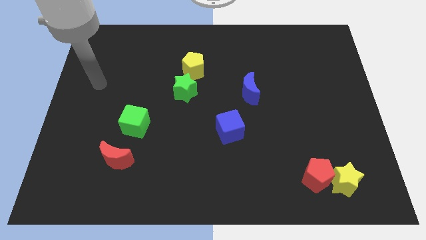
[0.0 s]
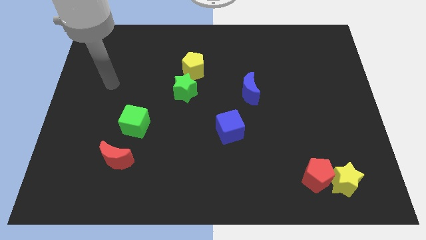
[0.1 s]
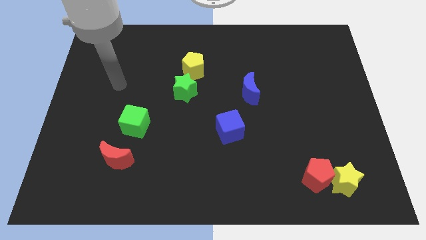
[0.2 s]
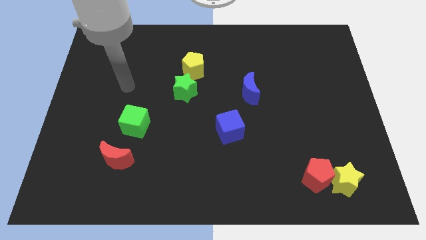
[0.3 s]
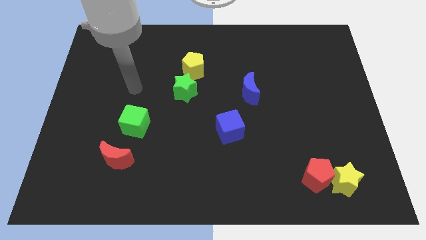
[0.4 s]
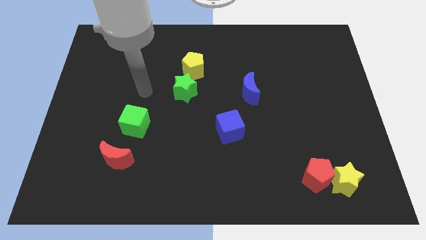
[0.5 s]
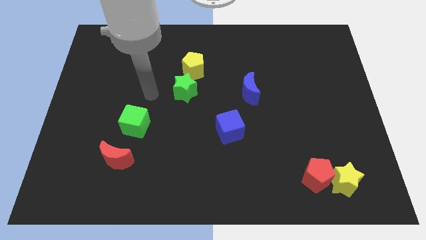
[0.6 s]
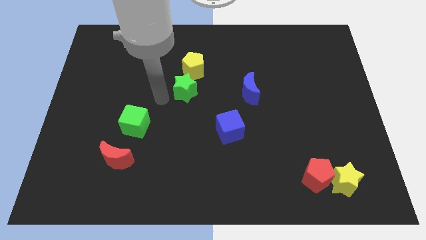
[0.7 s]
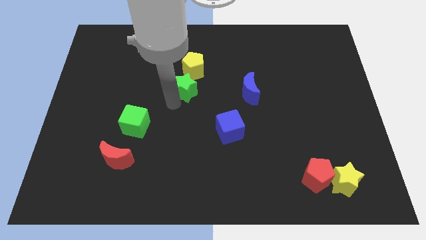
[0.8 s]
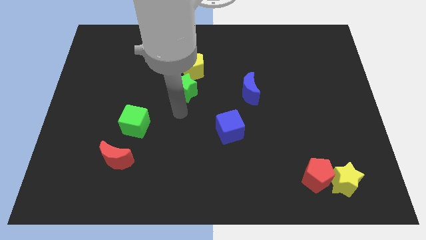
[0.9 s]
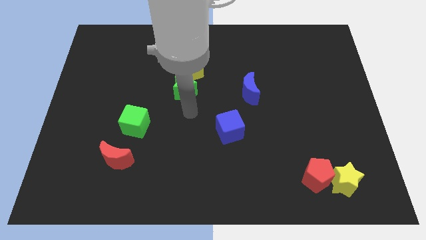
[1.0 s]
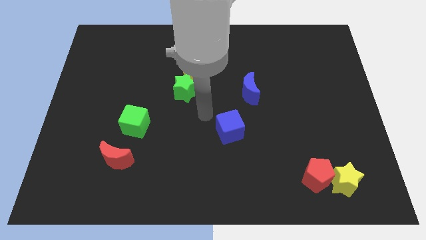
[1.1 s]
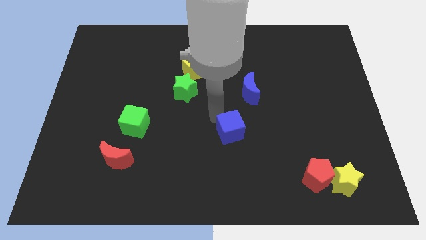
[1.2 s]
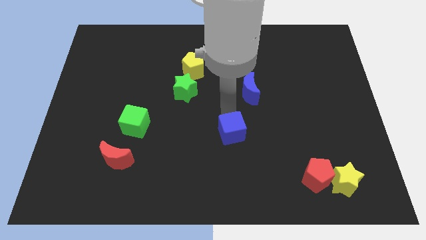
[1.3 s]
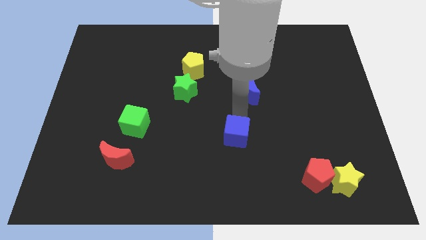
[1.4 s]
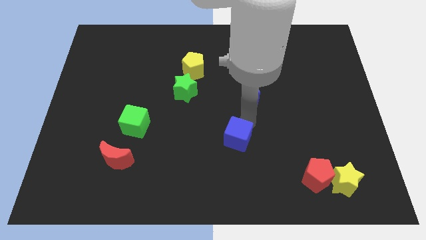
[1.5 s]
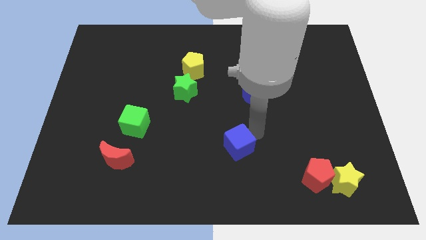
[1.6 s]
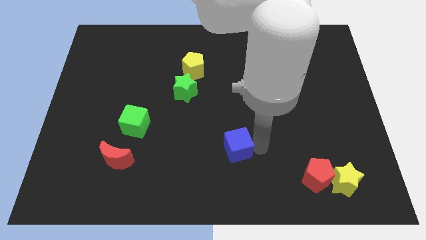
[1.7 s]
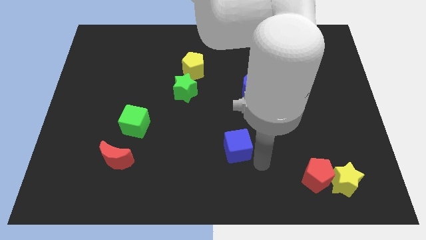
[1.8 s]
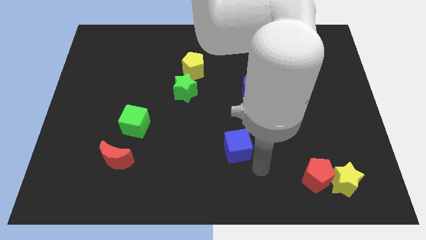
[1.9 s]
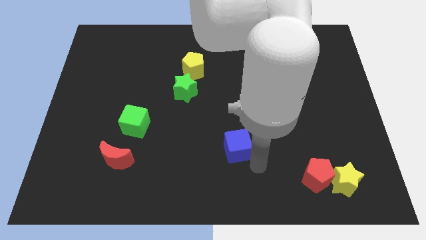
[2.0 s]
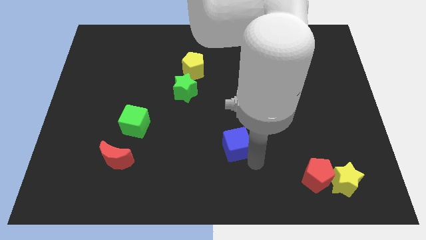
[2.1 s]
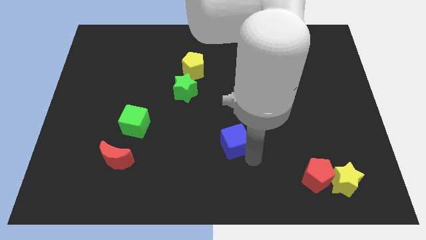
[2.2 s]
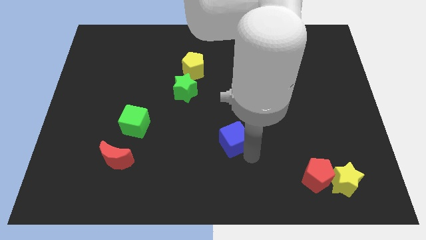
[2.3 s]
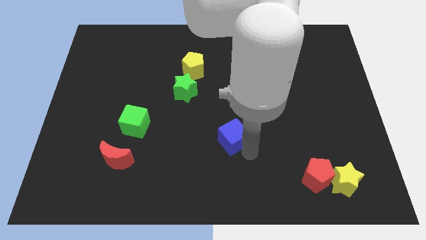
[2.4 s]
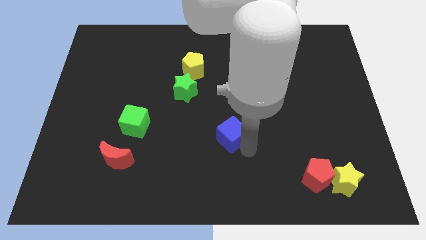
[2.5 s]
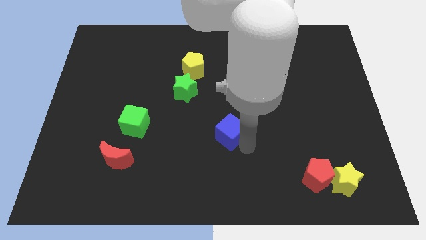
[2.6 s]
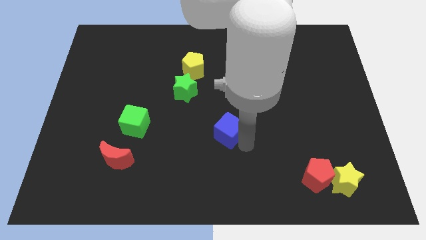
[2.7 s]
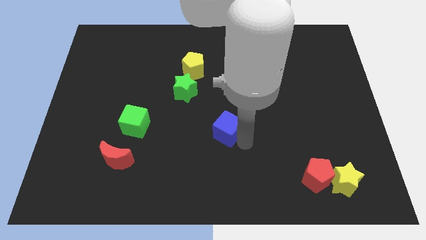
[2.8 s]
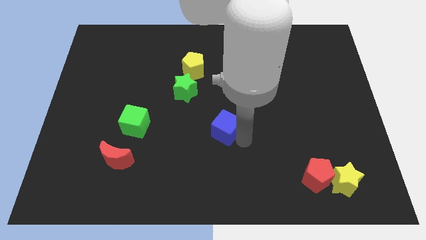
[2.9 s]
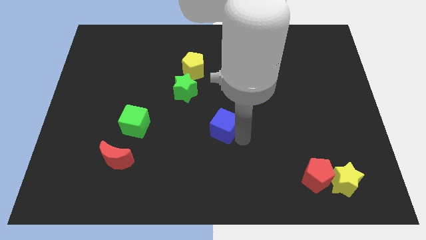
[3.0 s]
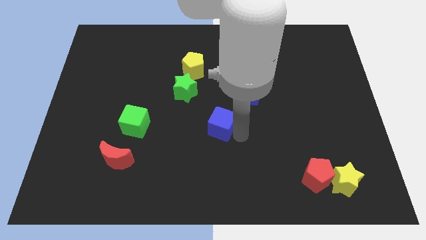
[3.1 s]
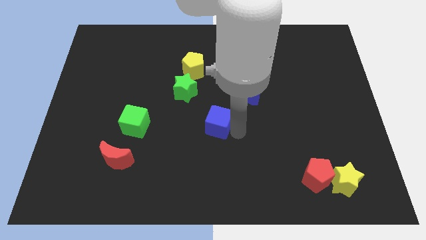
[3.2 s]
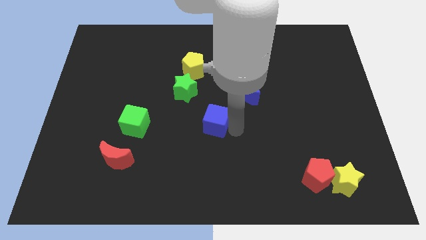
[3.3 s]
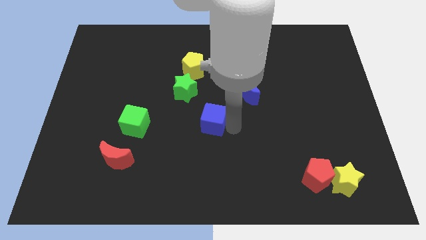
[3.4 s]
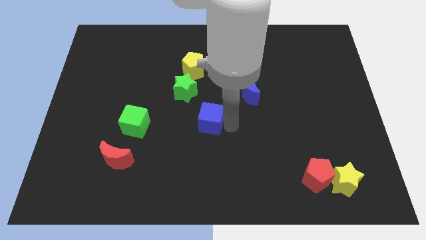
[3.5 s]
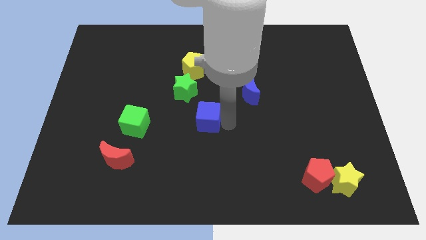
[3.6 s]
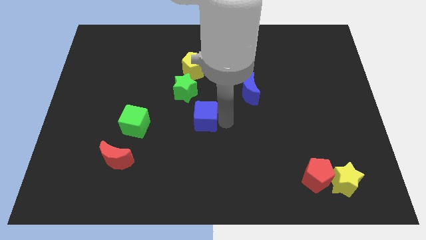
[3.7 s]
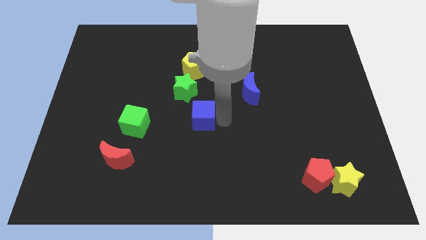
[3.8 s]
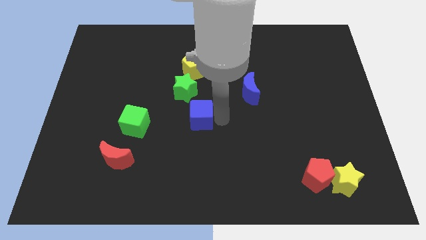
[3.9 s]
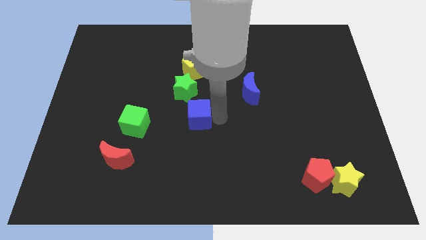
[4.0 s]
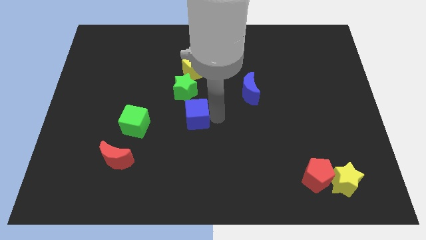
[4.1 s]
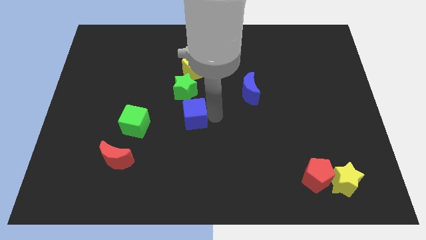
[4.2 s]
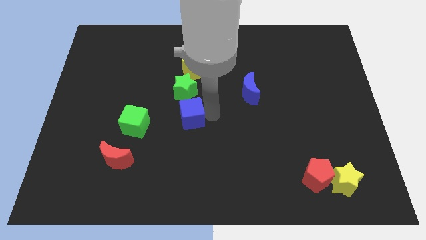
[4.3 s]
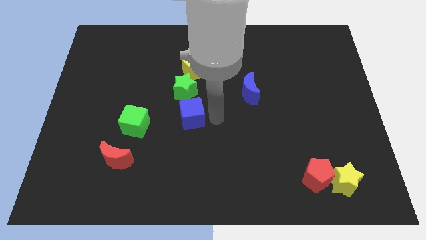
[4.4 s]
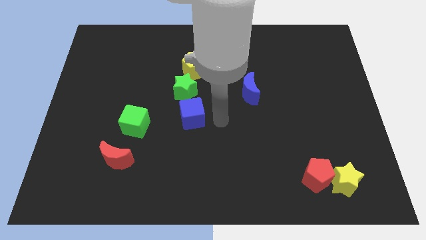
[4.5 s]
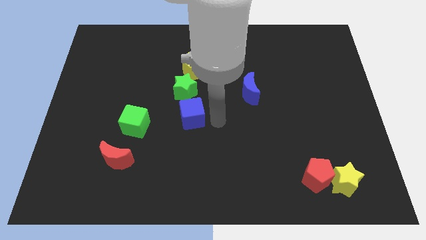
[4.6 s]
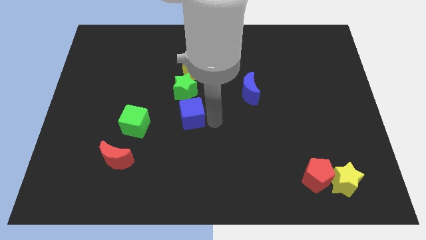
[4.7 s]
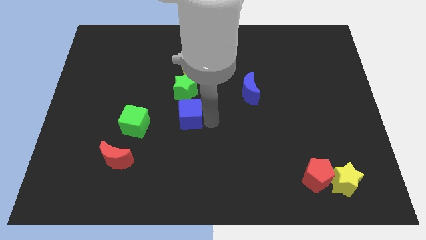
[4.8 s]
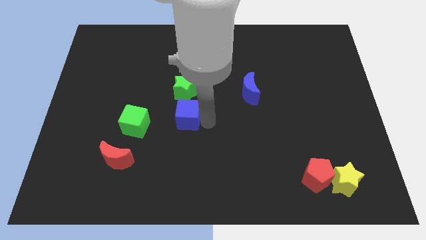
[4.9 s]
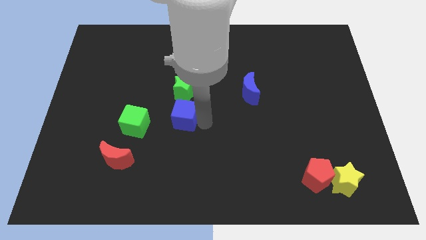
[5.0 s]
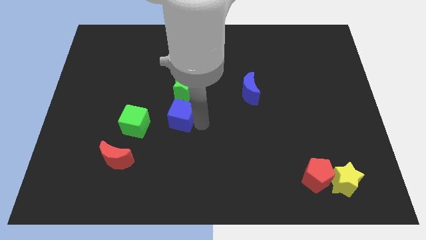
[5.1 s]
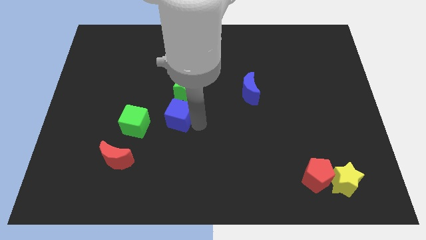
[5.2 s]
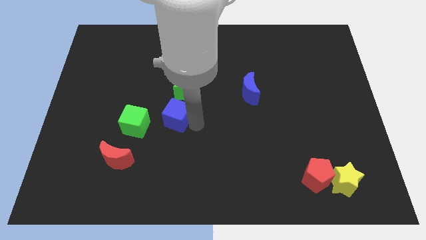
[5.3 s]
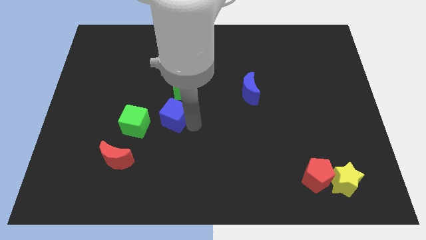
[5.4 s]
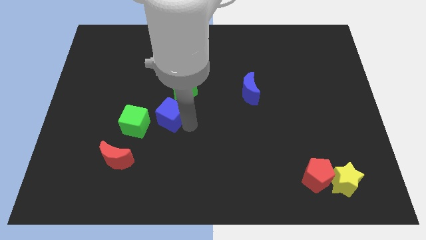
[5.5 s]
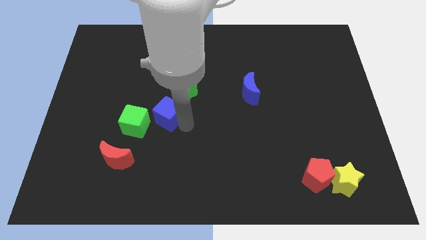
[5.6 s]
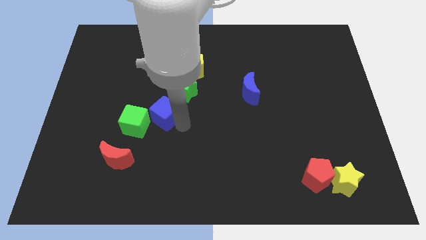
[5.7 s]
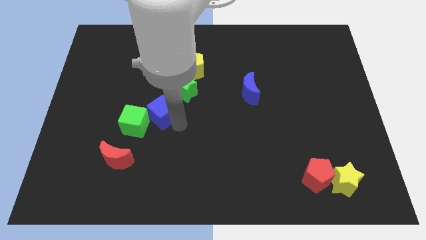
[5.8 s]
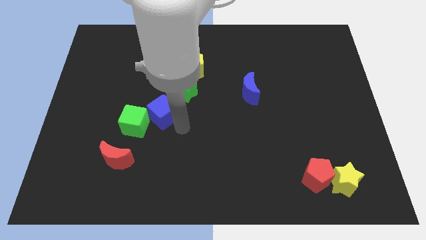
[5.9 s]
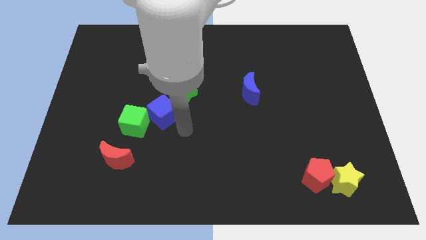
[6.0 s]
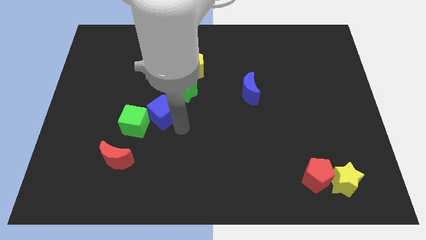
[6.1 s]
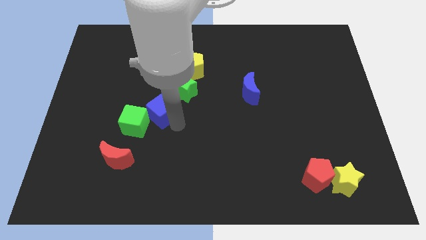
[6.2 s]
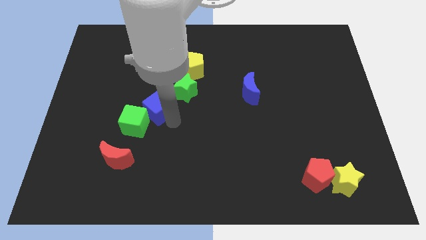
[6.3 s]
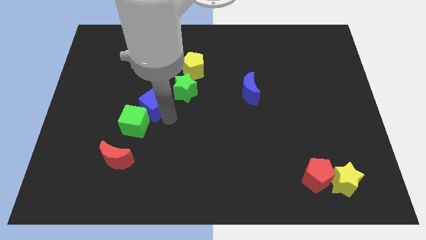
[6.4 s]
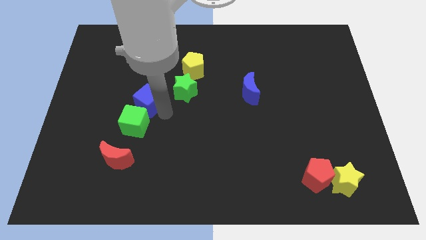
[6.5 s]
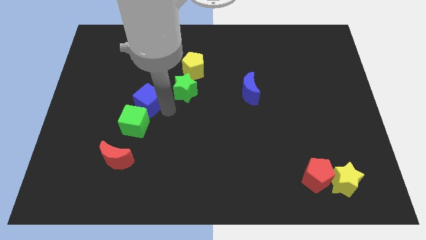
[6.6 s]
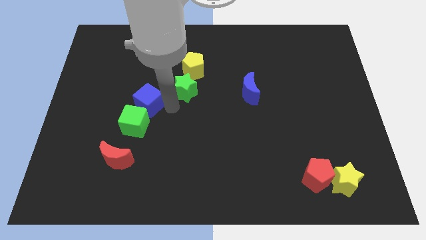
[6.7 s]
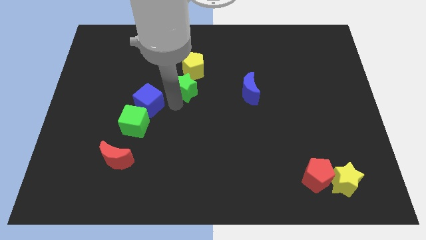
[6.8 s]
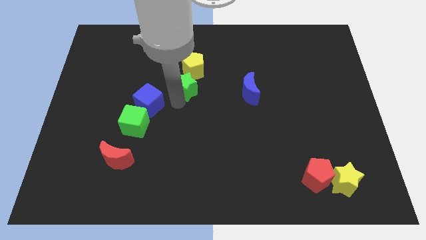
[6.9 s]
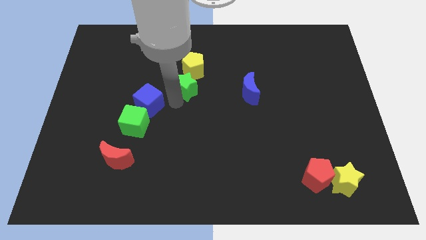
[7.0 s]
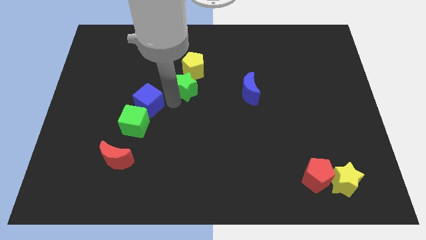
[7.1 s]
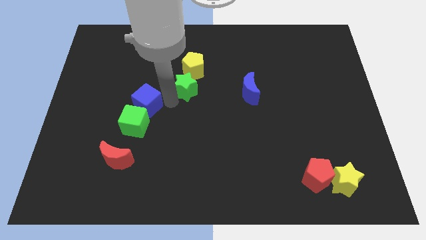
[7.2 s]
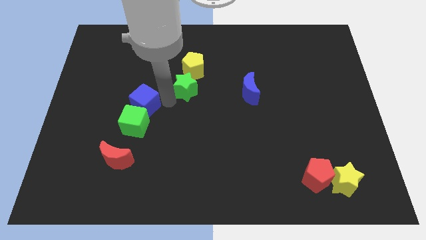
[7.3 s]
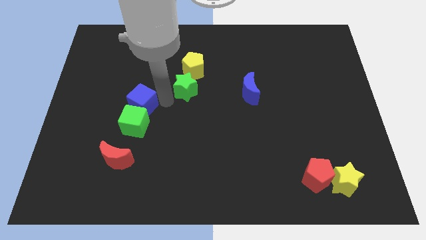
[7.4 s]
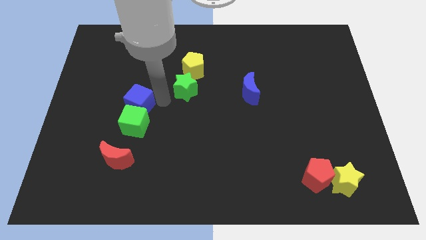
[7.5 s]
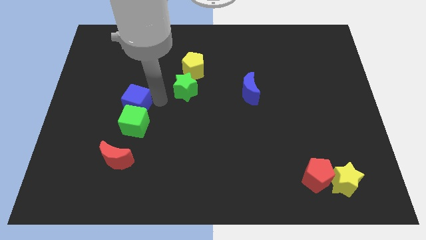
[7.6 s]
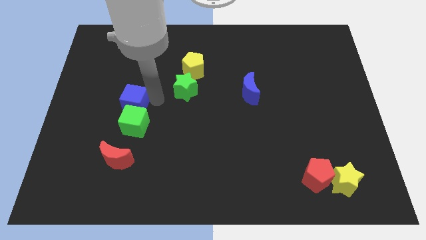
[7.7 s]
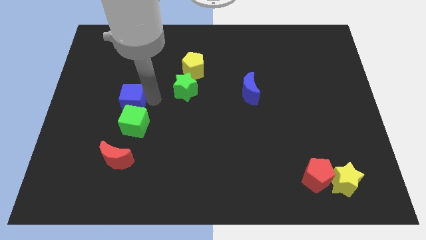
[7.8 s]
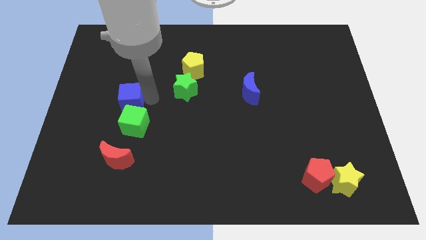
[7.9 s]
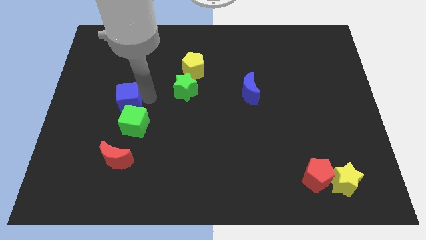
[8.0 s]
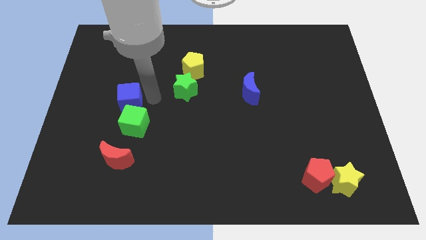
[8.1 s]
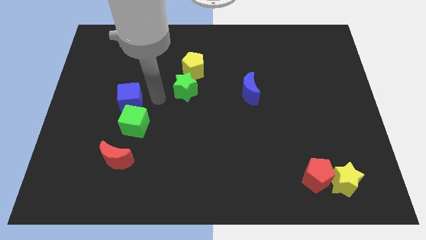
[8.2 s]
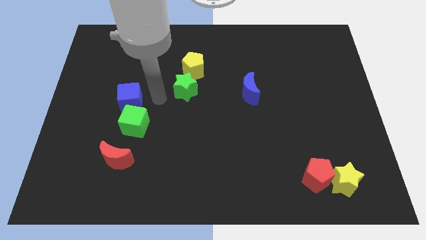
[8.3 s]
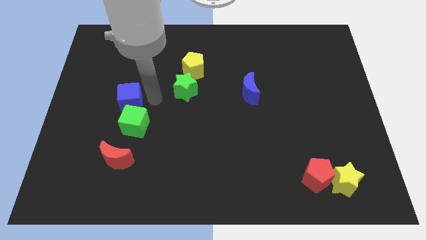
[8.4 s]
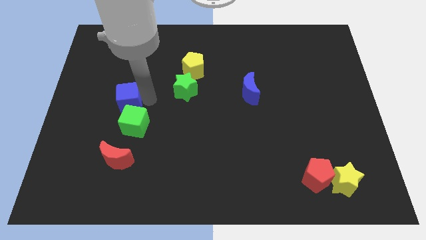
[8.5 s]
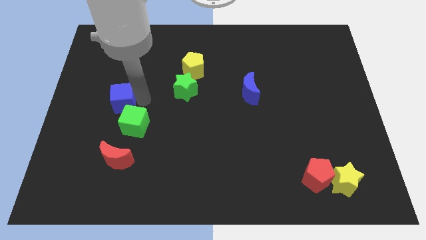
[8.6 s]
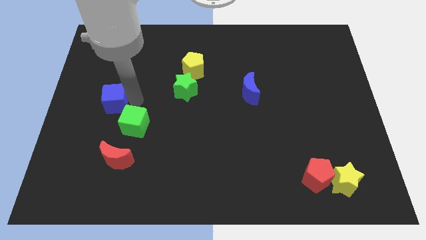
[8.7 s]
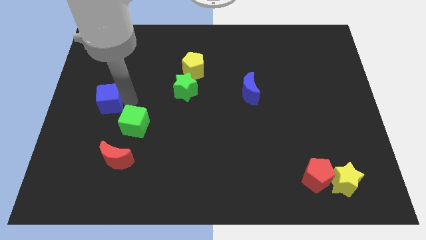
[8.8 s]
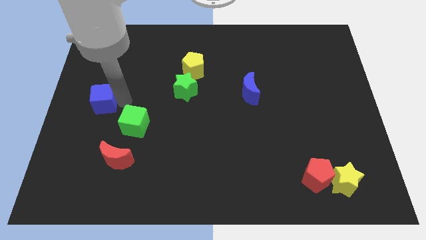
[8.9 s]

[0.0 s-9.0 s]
move the blue cube to the left side
